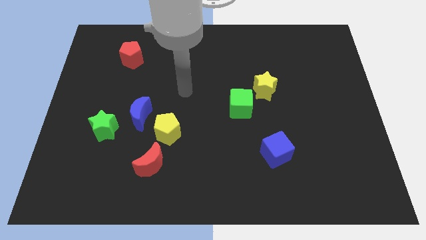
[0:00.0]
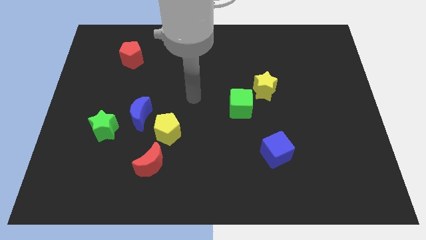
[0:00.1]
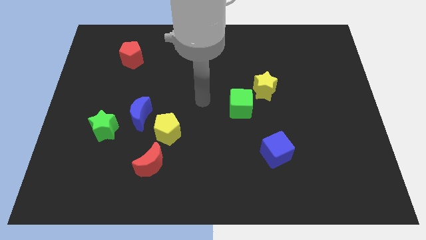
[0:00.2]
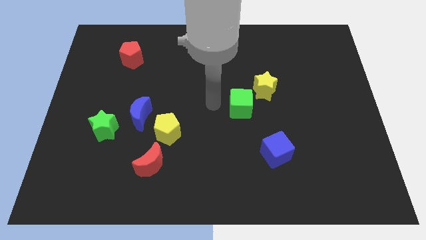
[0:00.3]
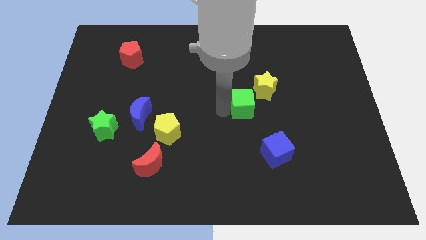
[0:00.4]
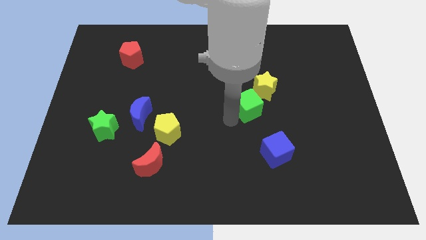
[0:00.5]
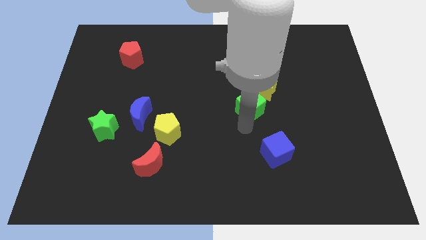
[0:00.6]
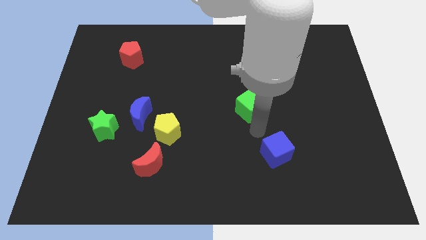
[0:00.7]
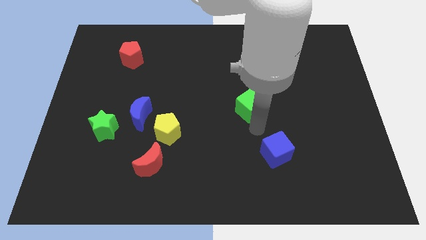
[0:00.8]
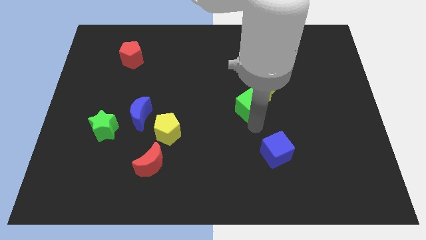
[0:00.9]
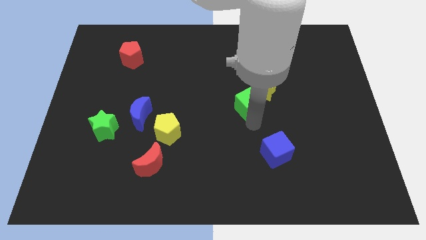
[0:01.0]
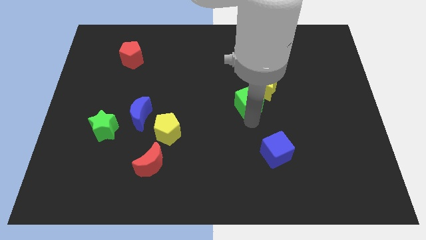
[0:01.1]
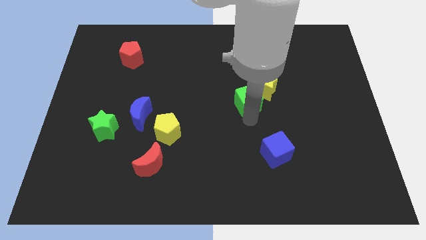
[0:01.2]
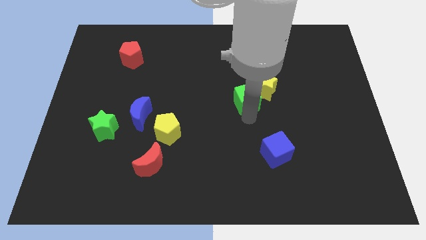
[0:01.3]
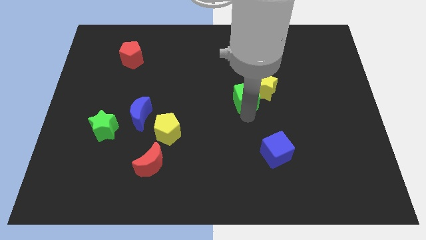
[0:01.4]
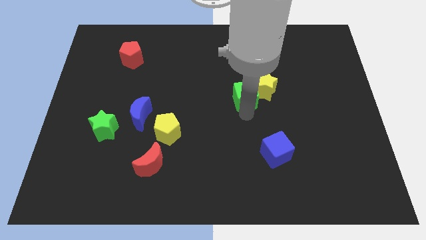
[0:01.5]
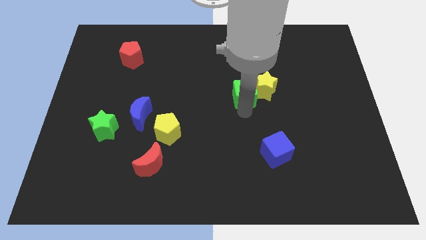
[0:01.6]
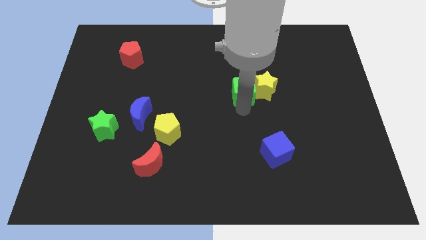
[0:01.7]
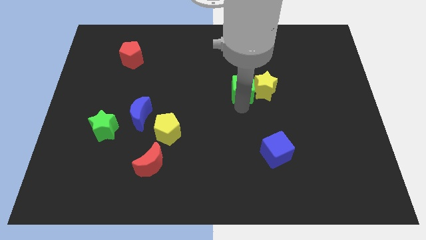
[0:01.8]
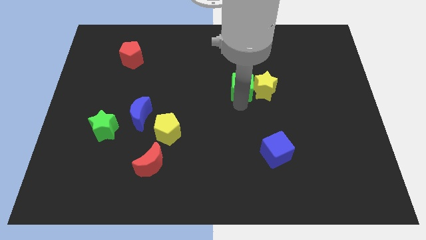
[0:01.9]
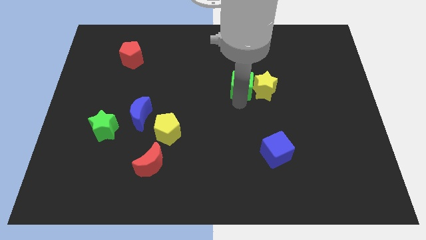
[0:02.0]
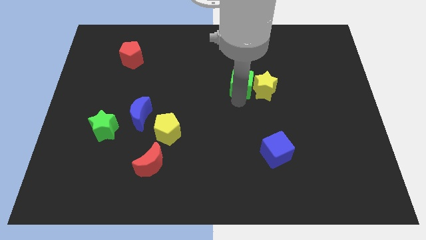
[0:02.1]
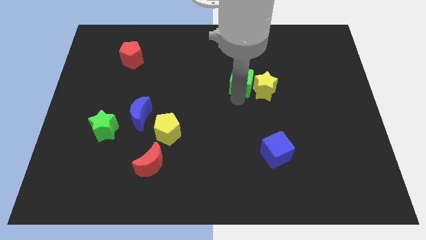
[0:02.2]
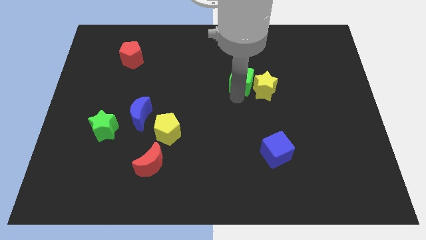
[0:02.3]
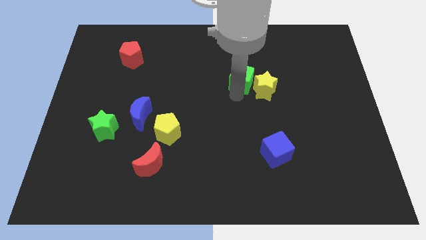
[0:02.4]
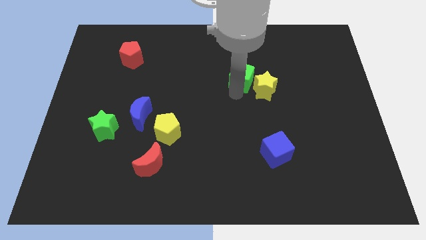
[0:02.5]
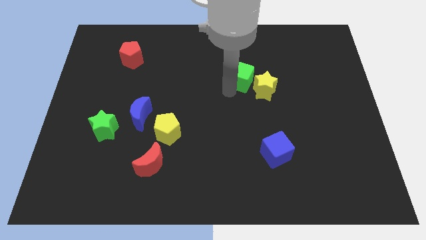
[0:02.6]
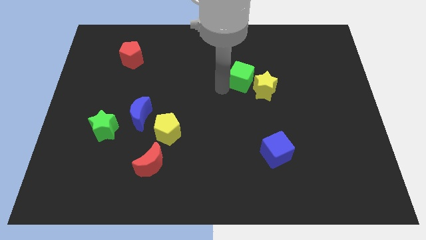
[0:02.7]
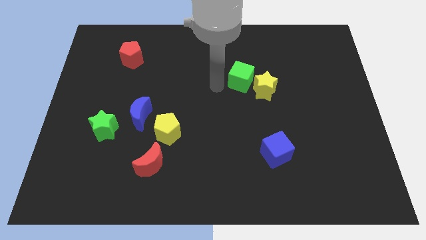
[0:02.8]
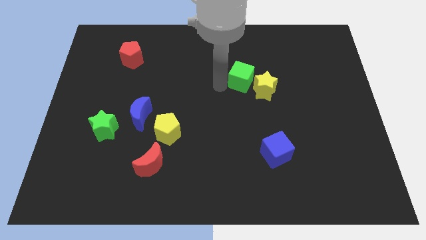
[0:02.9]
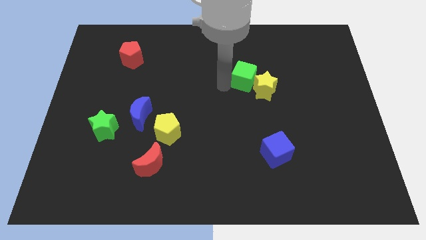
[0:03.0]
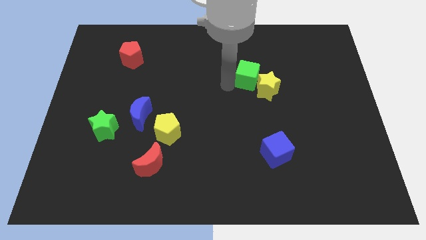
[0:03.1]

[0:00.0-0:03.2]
push the green cube a bit up and right

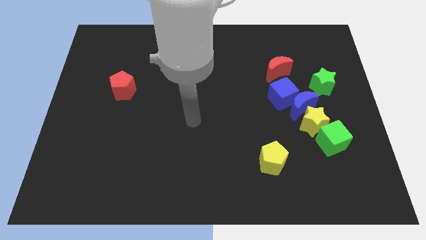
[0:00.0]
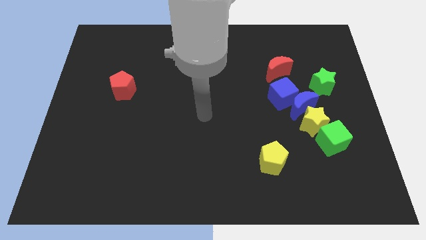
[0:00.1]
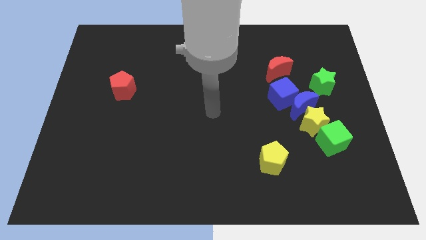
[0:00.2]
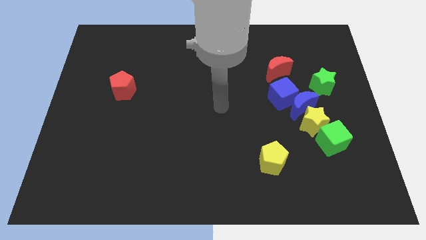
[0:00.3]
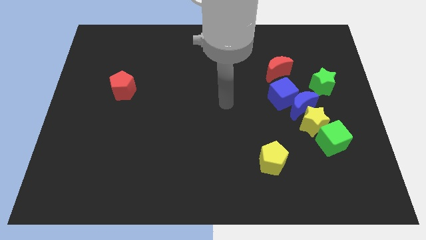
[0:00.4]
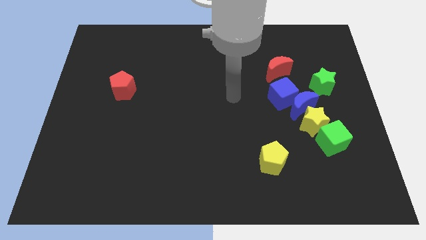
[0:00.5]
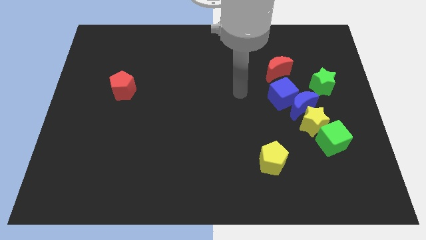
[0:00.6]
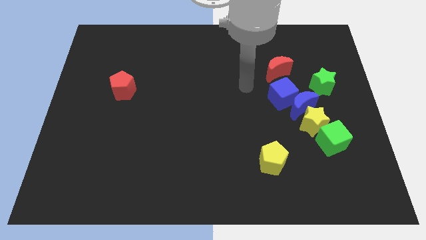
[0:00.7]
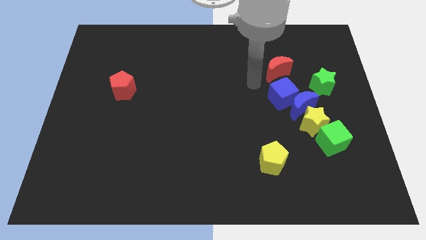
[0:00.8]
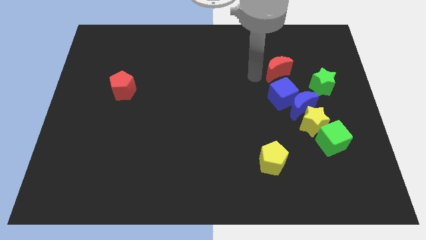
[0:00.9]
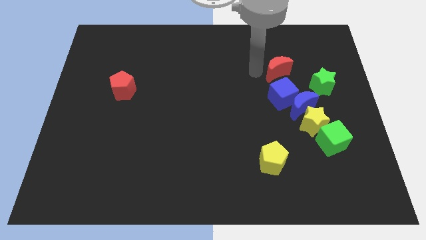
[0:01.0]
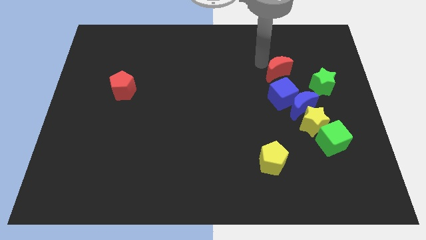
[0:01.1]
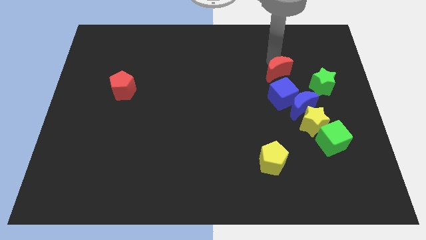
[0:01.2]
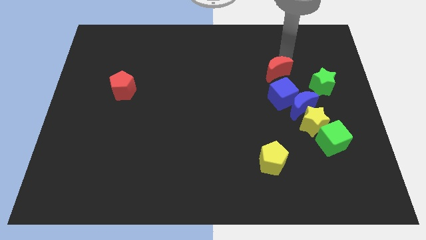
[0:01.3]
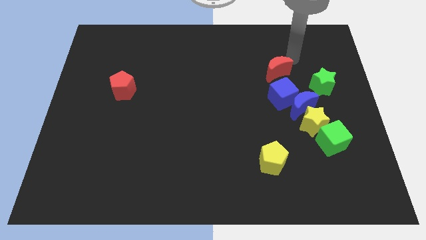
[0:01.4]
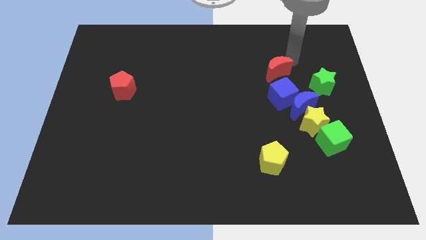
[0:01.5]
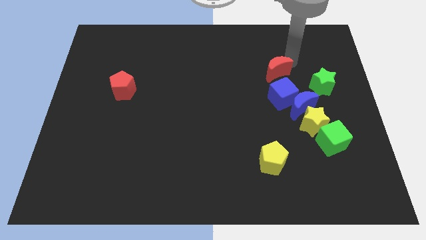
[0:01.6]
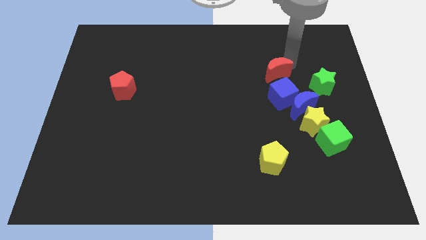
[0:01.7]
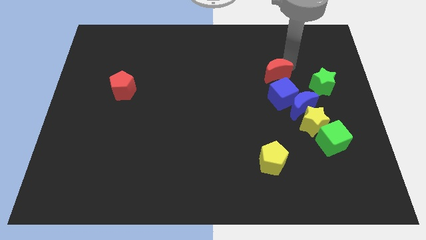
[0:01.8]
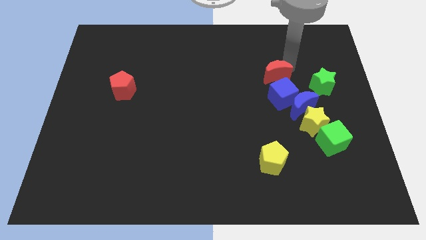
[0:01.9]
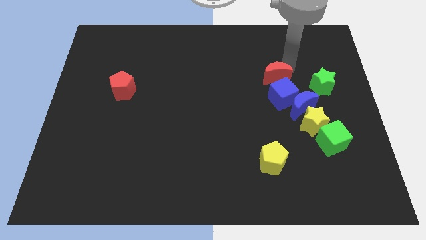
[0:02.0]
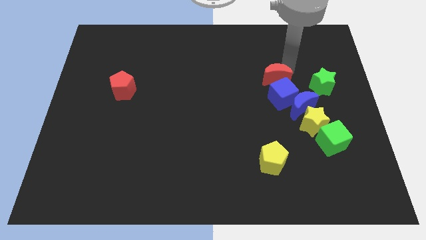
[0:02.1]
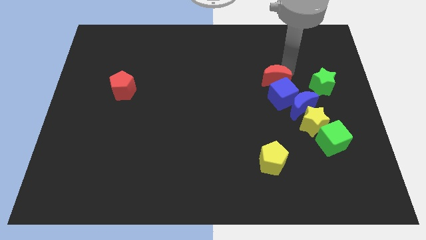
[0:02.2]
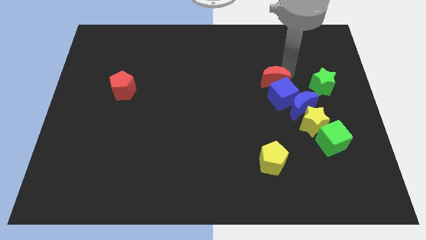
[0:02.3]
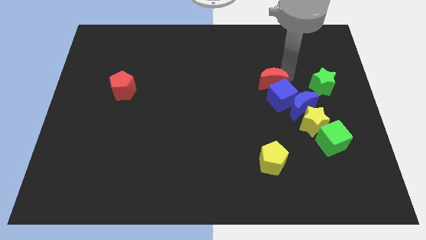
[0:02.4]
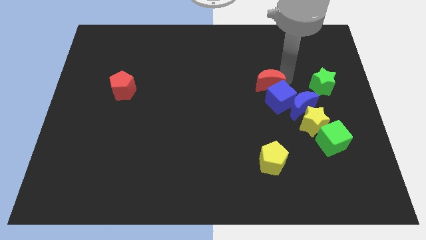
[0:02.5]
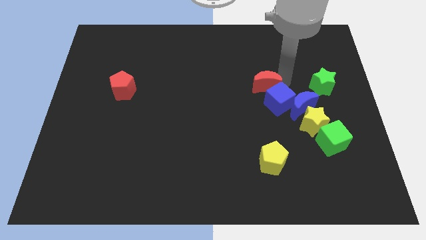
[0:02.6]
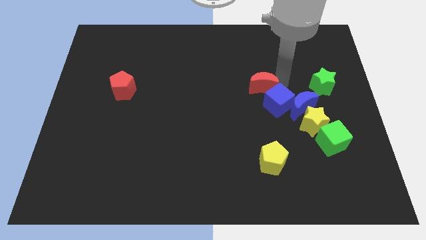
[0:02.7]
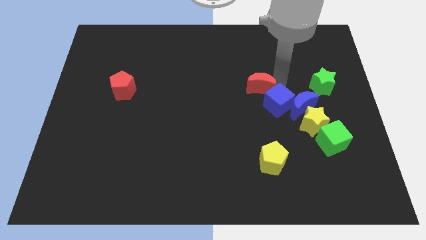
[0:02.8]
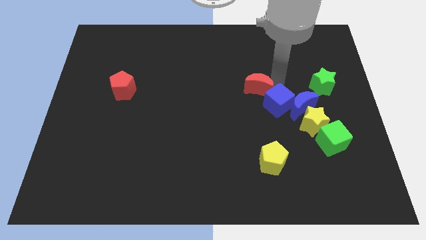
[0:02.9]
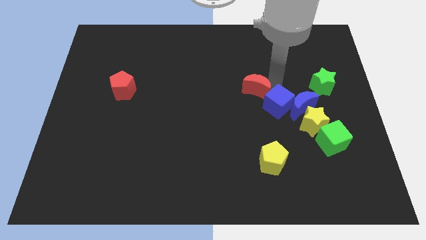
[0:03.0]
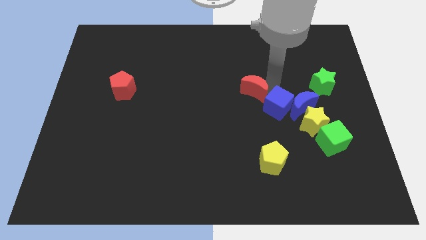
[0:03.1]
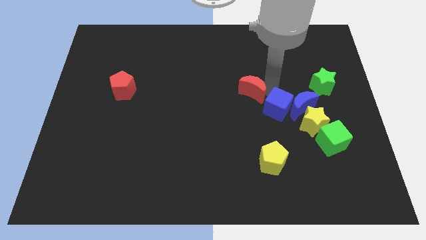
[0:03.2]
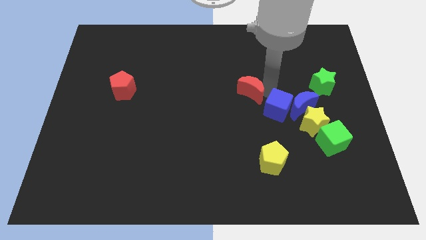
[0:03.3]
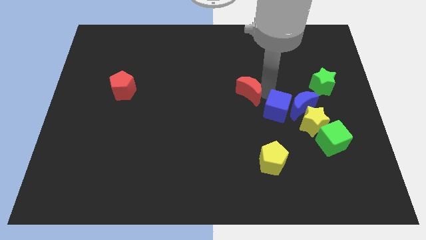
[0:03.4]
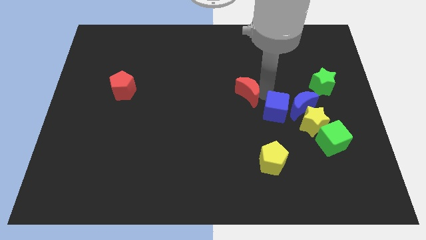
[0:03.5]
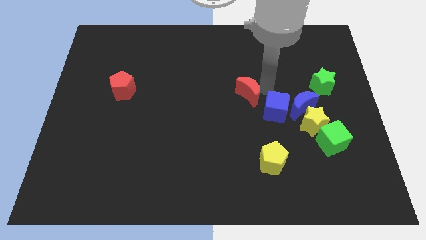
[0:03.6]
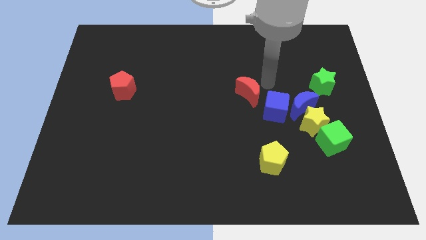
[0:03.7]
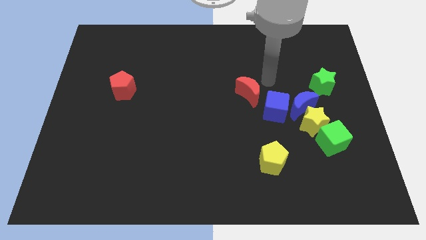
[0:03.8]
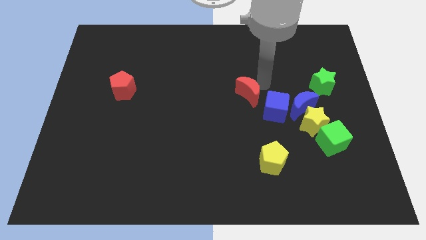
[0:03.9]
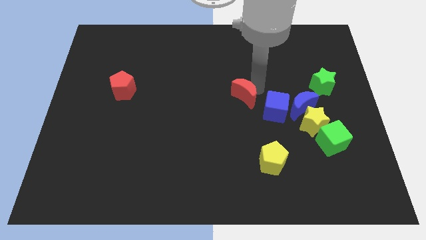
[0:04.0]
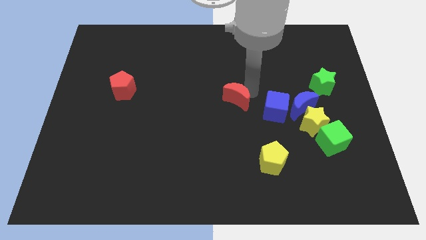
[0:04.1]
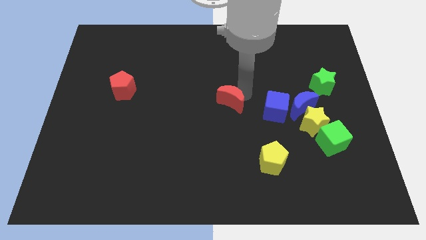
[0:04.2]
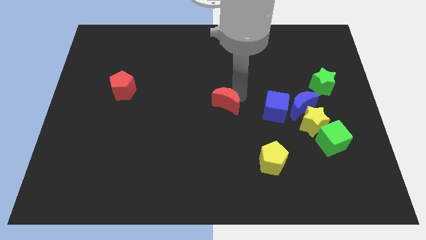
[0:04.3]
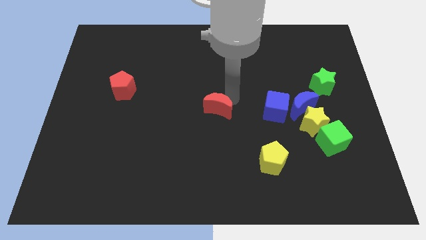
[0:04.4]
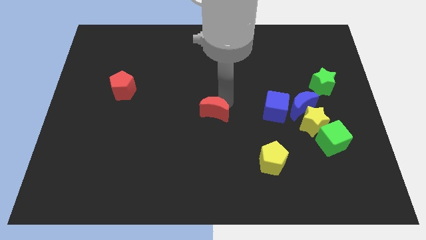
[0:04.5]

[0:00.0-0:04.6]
push the red moon downwards and left
